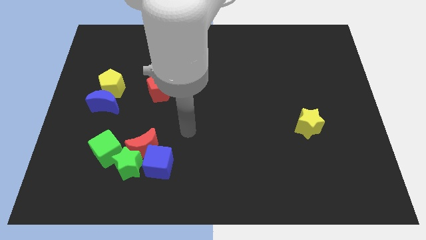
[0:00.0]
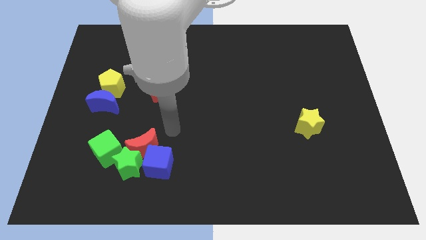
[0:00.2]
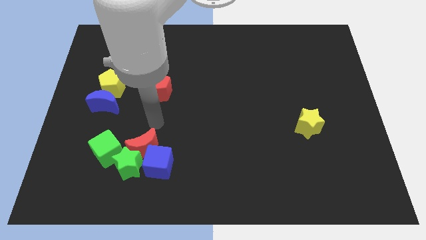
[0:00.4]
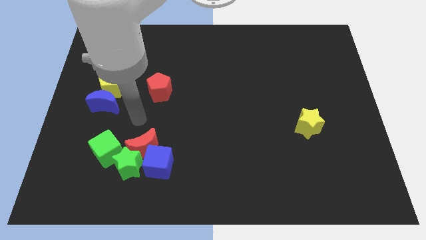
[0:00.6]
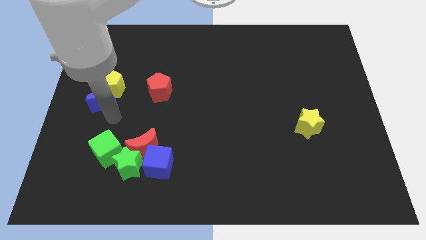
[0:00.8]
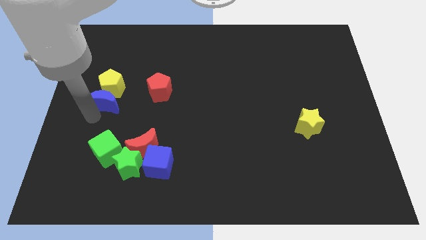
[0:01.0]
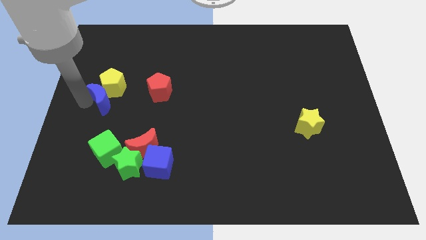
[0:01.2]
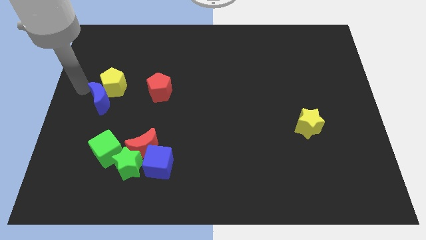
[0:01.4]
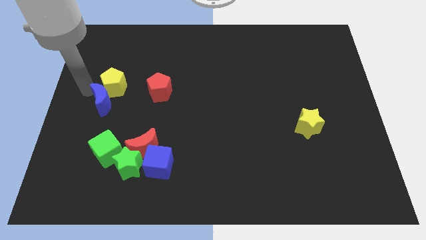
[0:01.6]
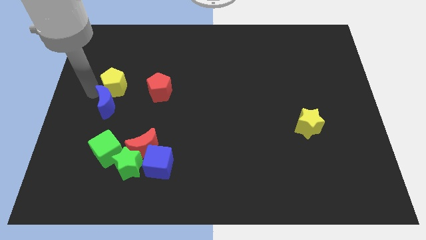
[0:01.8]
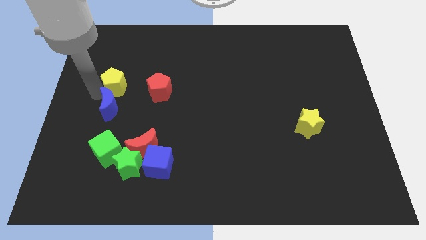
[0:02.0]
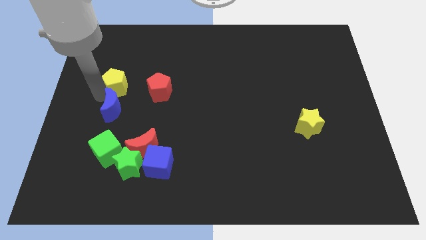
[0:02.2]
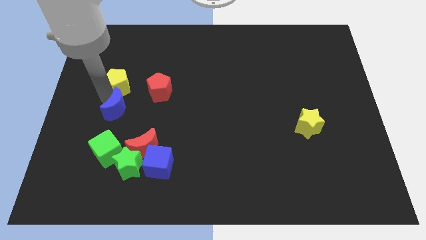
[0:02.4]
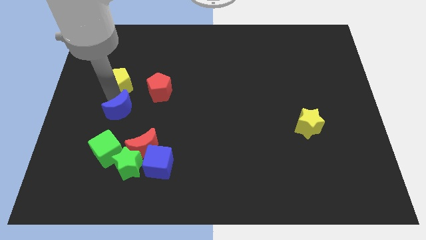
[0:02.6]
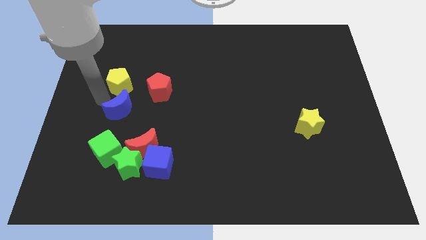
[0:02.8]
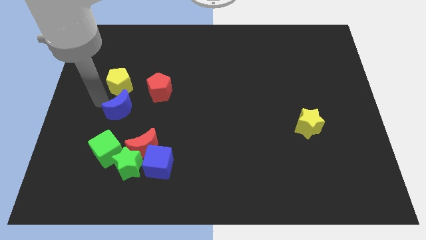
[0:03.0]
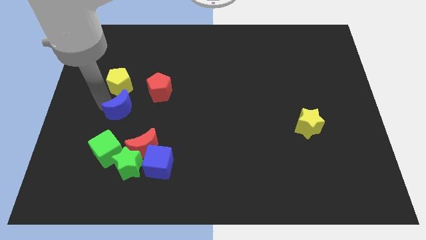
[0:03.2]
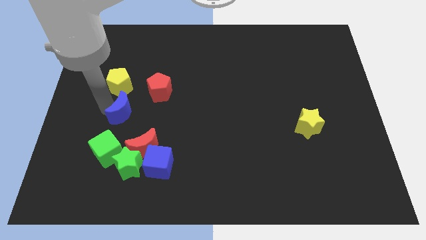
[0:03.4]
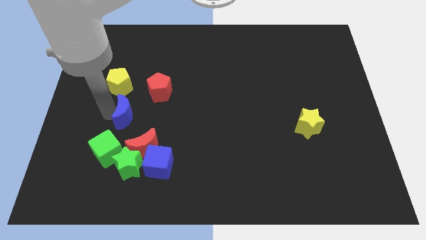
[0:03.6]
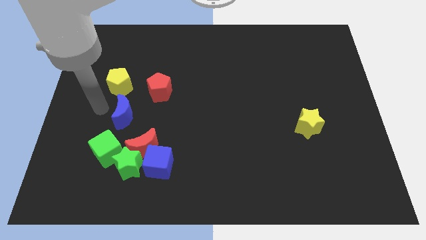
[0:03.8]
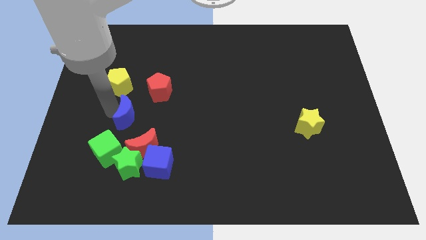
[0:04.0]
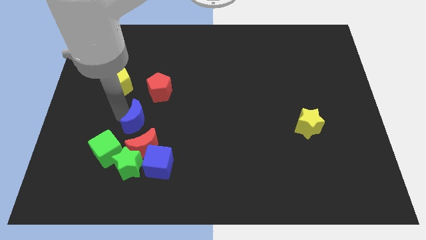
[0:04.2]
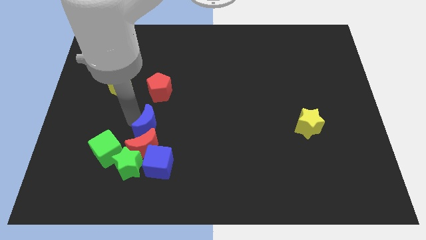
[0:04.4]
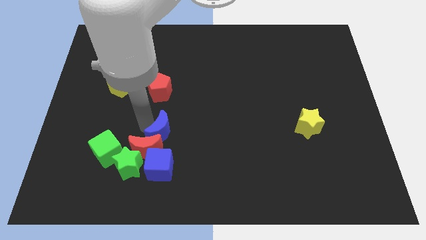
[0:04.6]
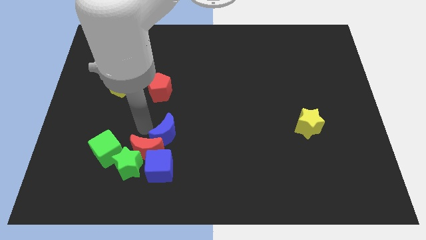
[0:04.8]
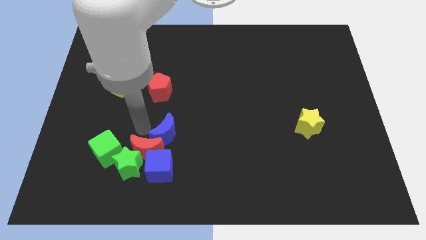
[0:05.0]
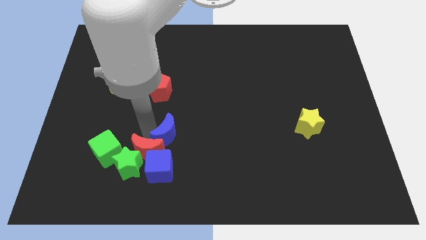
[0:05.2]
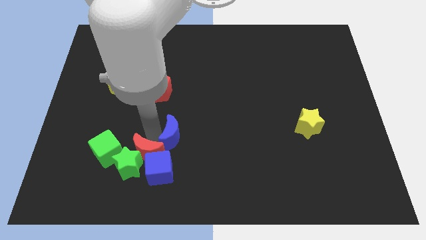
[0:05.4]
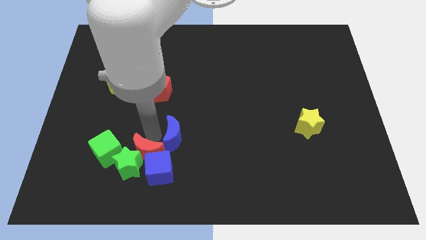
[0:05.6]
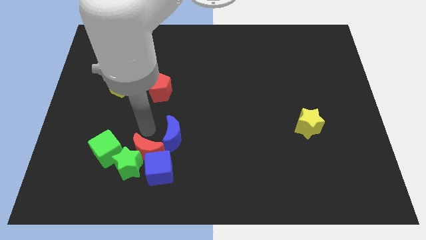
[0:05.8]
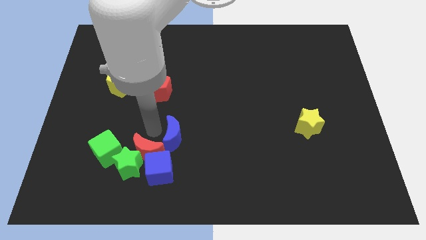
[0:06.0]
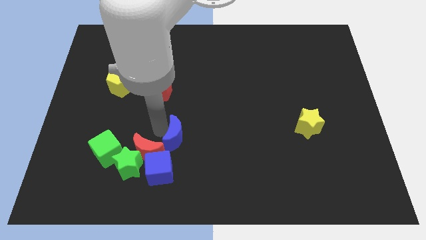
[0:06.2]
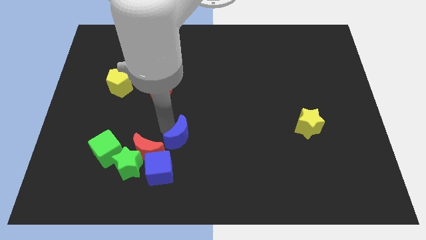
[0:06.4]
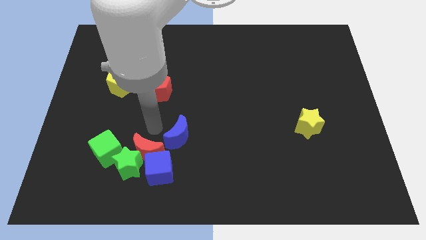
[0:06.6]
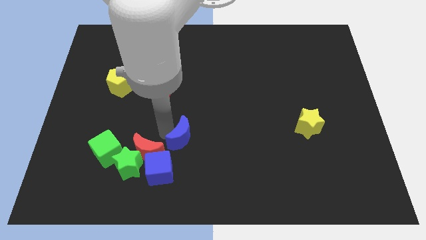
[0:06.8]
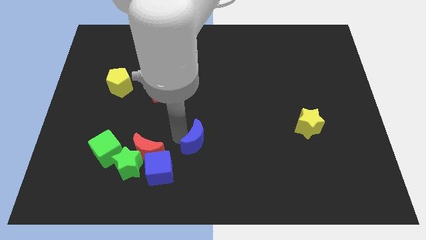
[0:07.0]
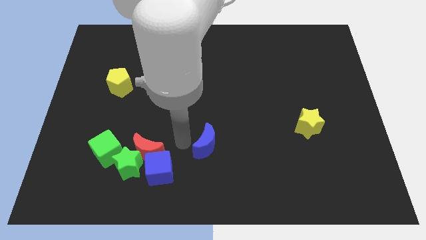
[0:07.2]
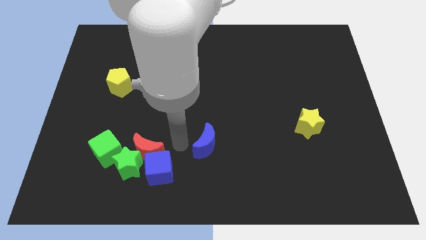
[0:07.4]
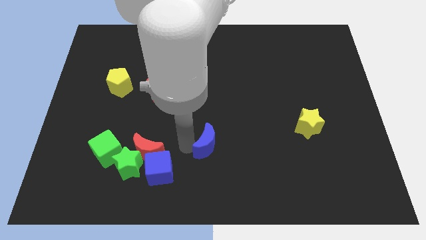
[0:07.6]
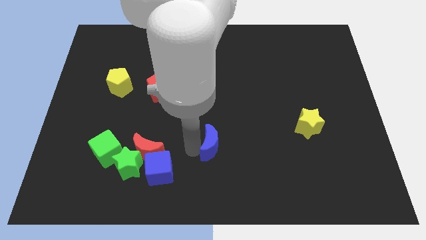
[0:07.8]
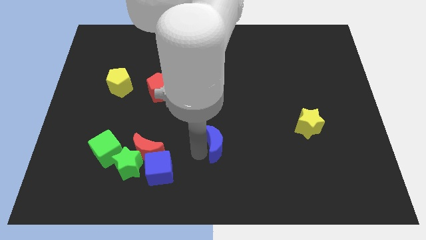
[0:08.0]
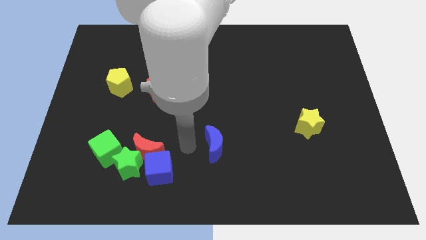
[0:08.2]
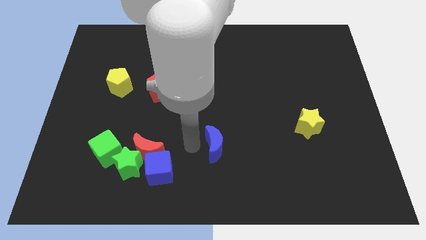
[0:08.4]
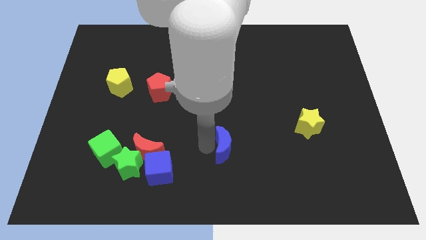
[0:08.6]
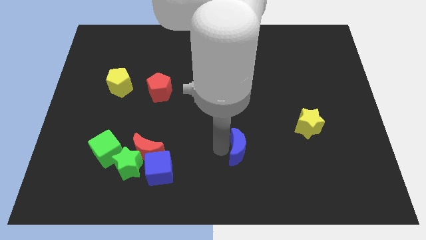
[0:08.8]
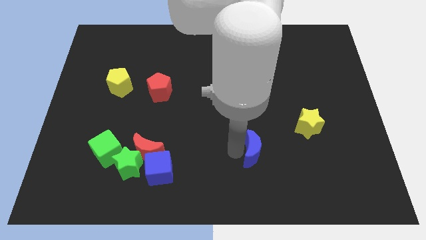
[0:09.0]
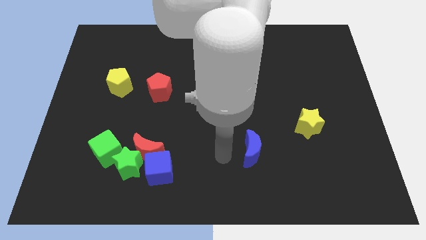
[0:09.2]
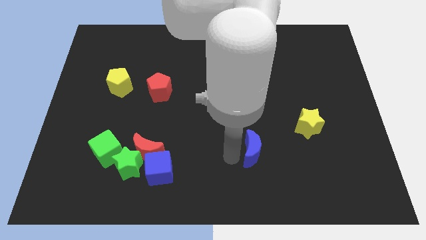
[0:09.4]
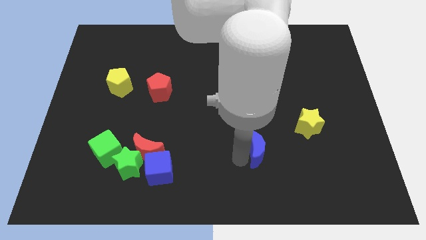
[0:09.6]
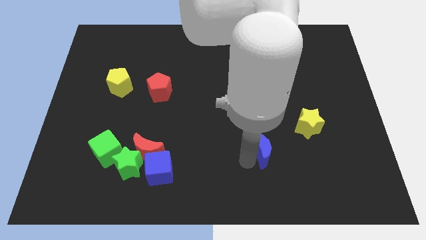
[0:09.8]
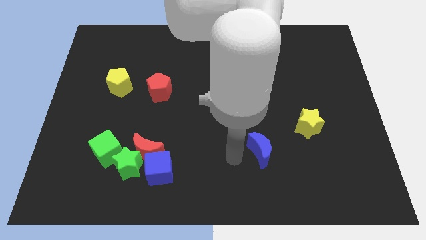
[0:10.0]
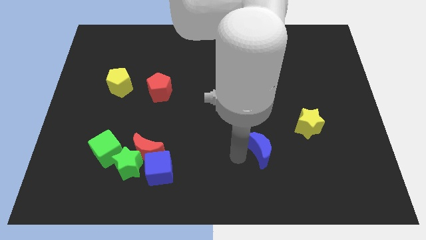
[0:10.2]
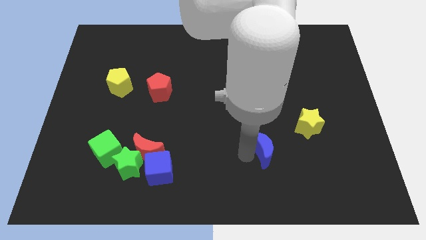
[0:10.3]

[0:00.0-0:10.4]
move the blue moon to the bottom left of the yellow star

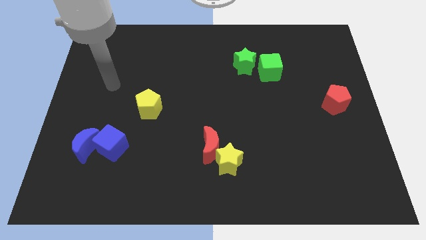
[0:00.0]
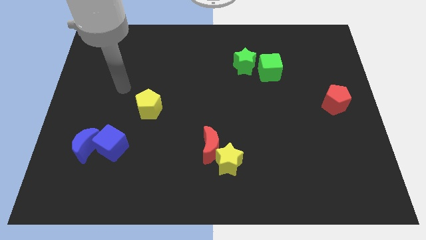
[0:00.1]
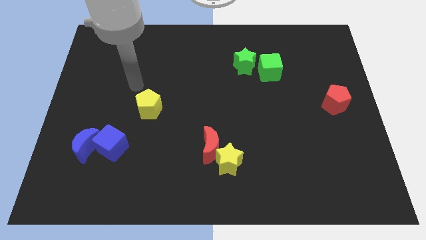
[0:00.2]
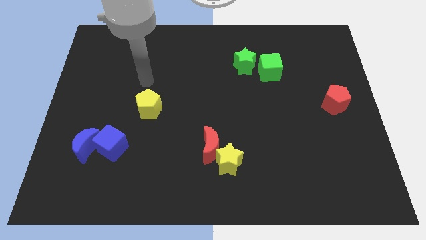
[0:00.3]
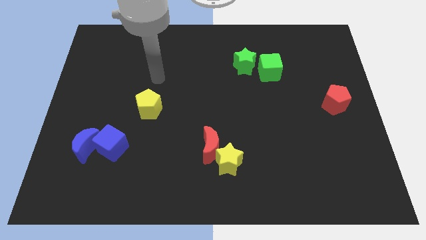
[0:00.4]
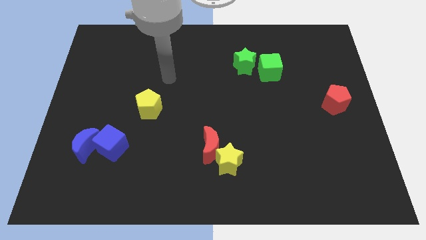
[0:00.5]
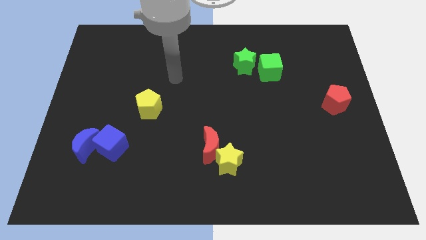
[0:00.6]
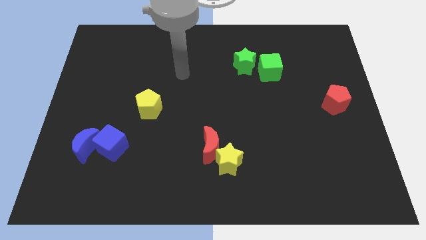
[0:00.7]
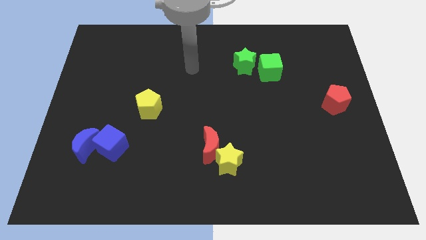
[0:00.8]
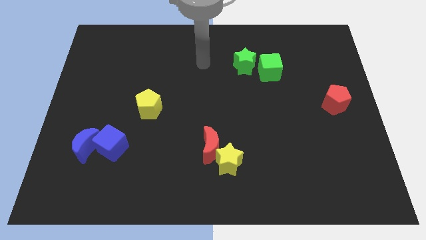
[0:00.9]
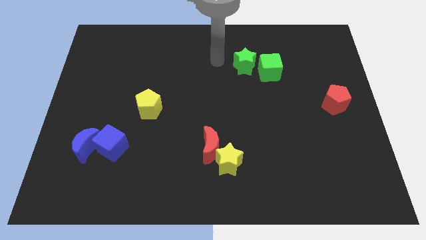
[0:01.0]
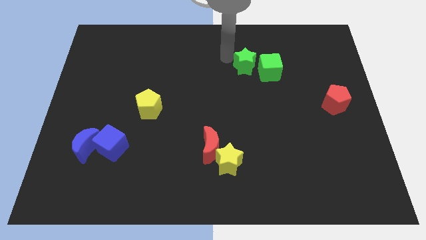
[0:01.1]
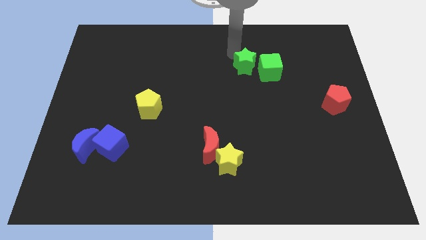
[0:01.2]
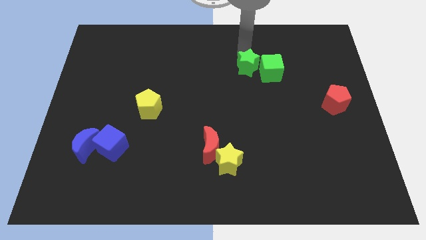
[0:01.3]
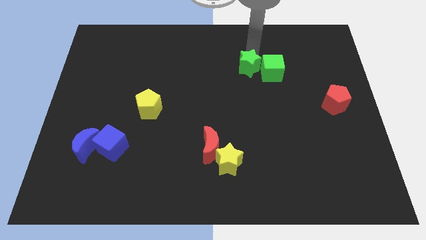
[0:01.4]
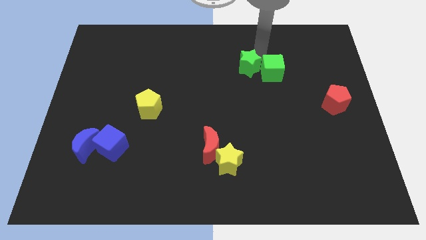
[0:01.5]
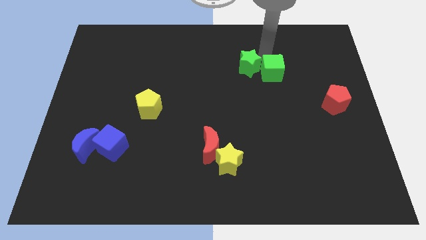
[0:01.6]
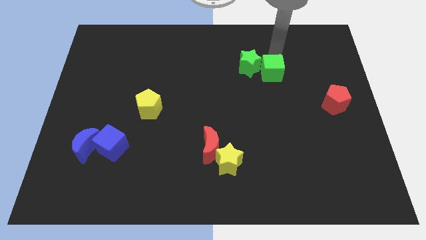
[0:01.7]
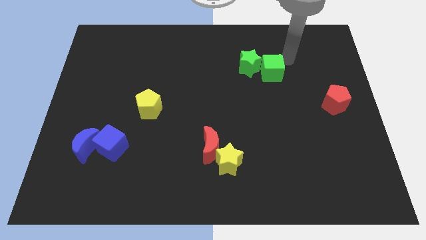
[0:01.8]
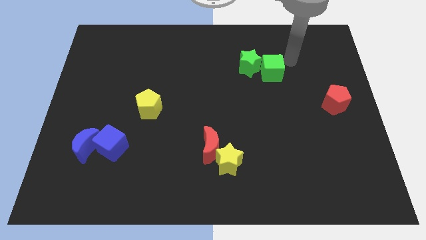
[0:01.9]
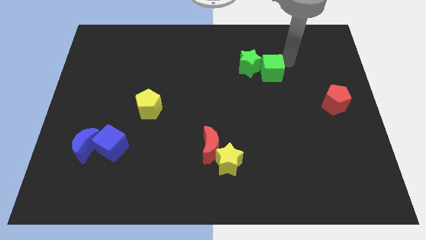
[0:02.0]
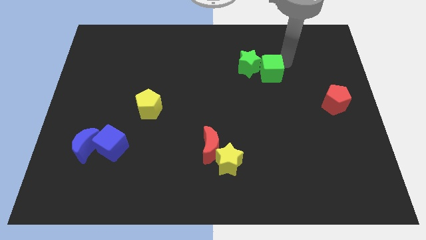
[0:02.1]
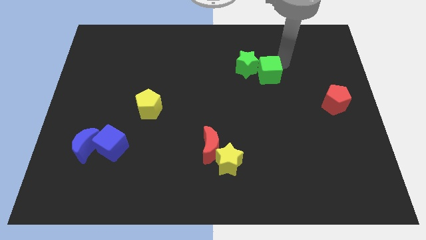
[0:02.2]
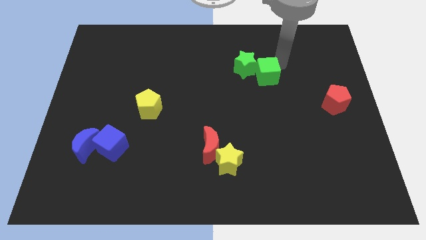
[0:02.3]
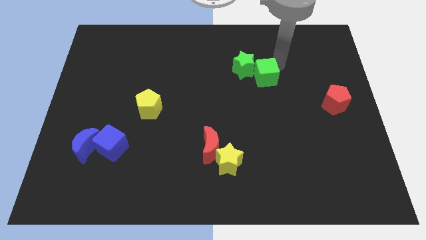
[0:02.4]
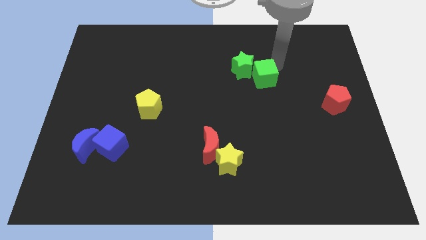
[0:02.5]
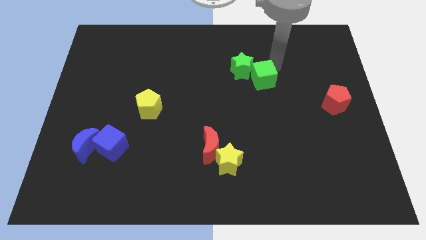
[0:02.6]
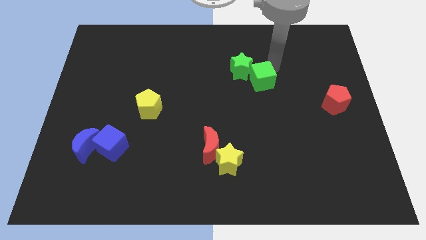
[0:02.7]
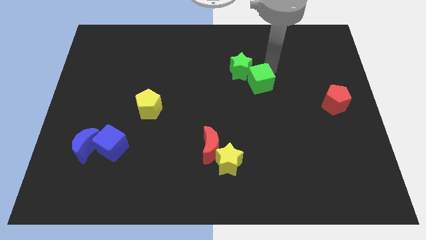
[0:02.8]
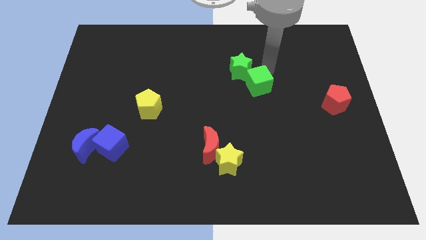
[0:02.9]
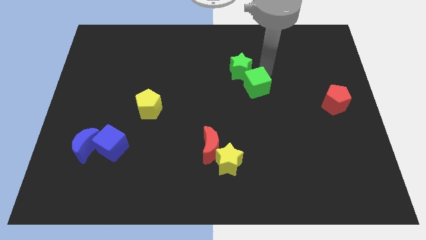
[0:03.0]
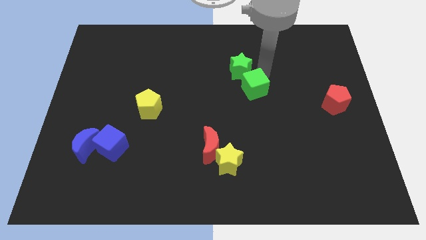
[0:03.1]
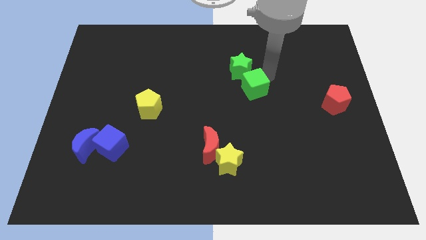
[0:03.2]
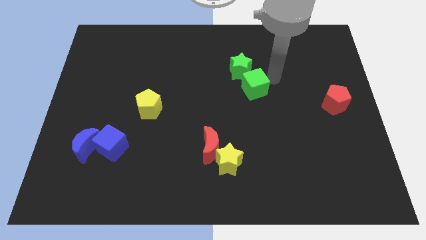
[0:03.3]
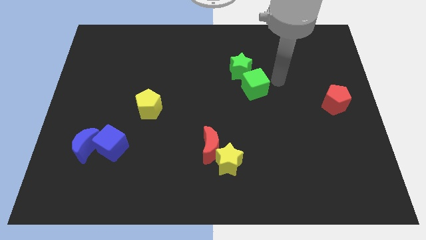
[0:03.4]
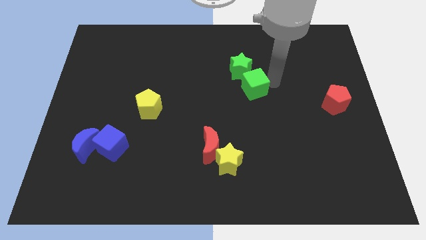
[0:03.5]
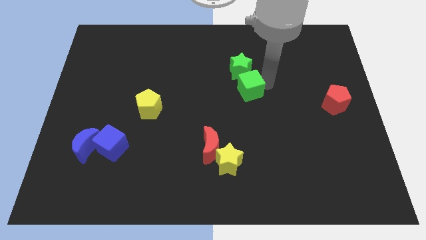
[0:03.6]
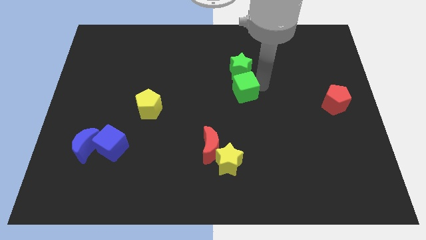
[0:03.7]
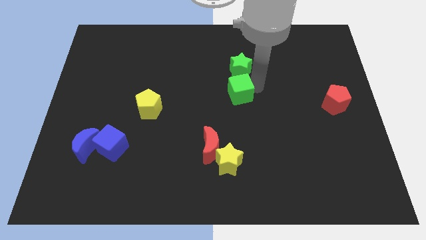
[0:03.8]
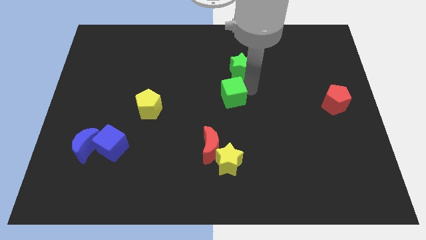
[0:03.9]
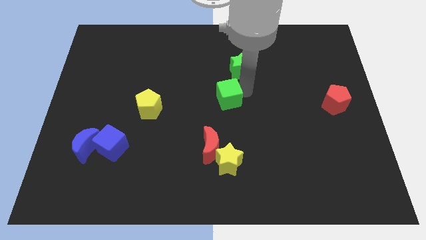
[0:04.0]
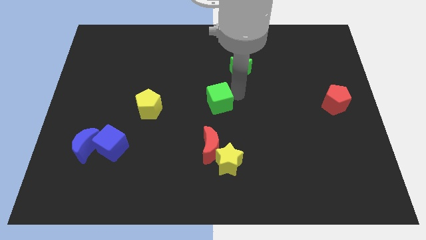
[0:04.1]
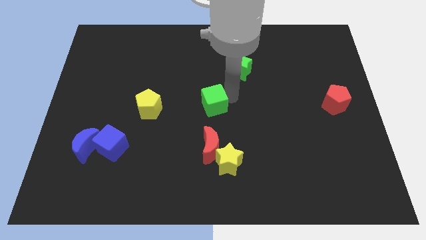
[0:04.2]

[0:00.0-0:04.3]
move the green cube right of the yellow pentagon
